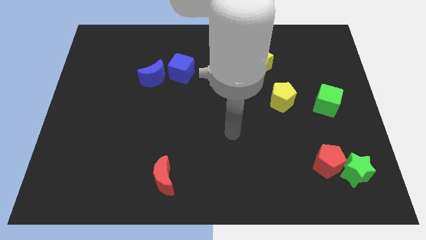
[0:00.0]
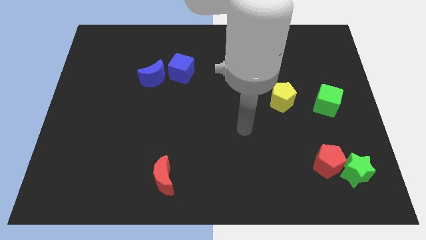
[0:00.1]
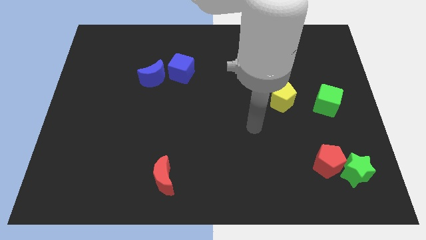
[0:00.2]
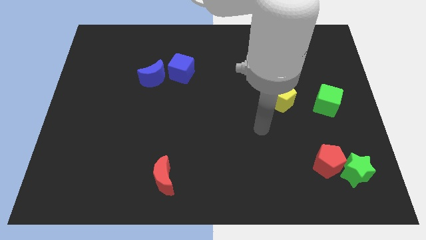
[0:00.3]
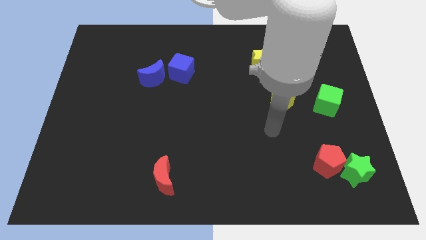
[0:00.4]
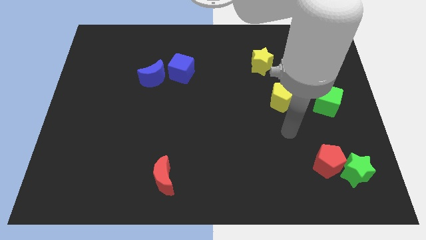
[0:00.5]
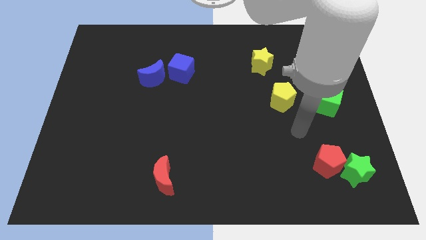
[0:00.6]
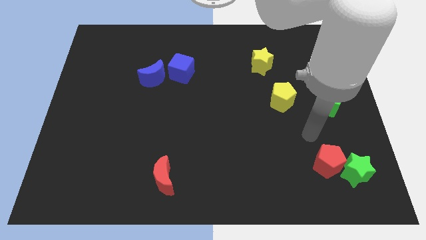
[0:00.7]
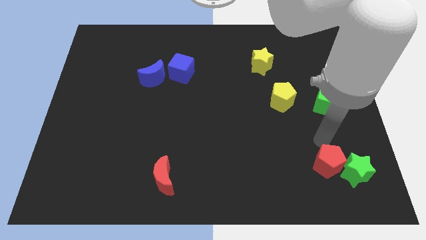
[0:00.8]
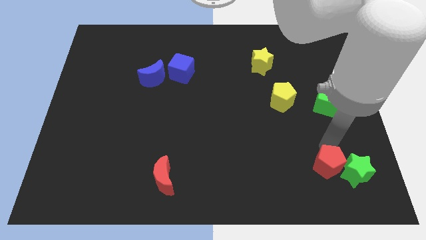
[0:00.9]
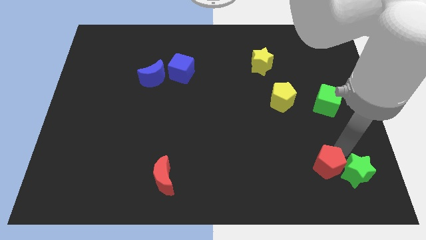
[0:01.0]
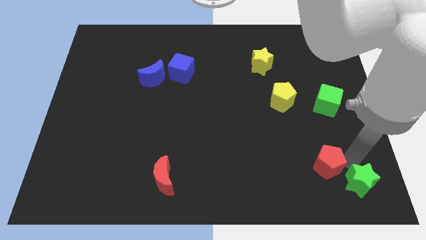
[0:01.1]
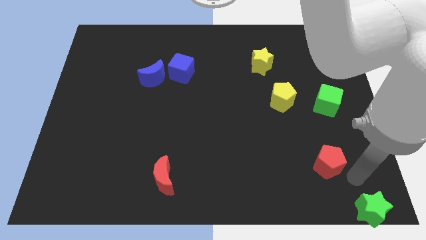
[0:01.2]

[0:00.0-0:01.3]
separate the red pentagon from the green star

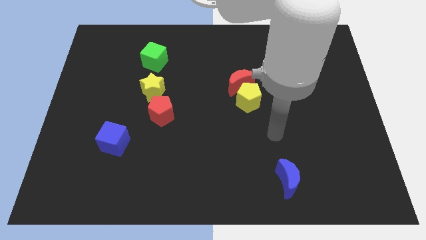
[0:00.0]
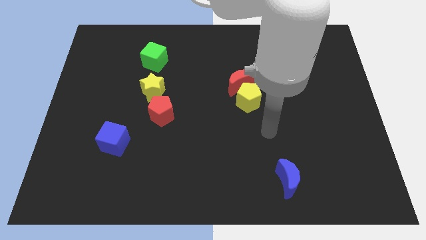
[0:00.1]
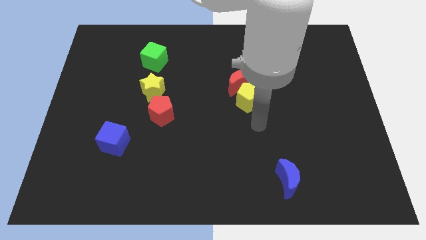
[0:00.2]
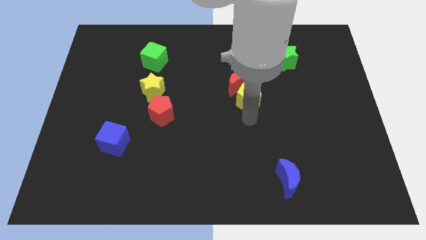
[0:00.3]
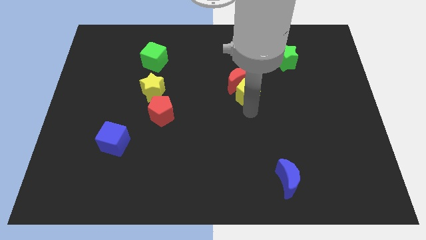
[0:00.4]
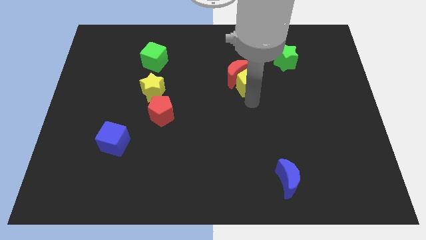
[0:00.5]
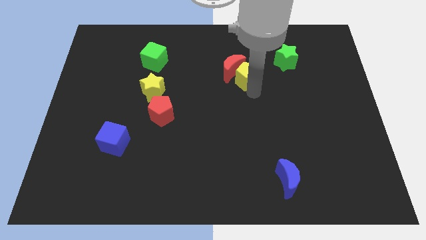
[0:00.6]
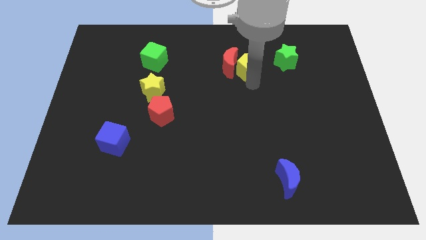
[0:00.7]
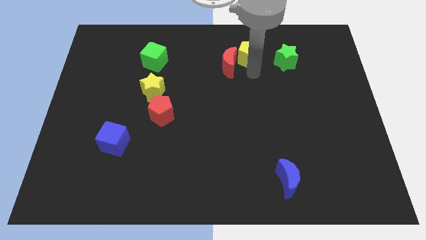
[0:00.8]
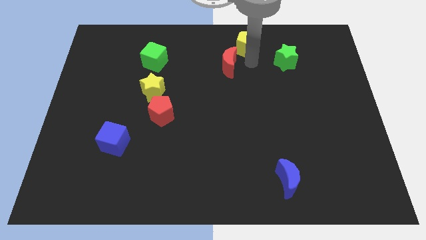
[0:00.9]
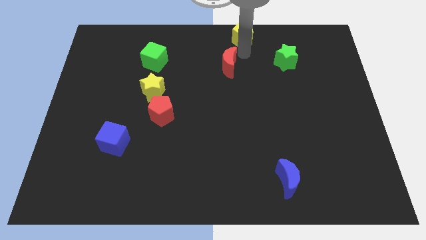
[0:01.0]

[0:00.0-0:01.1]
pull the red moon apart from the yellow pentagon

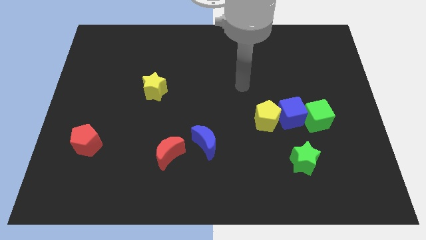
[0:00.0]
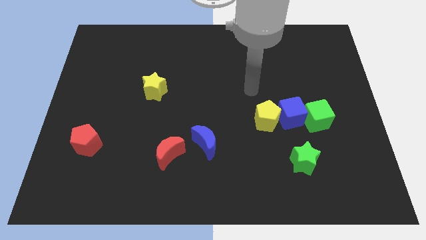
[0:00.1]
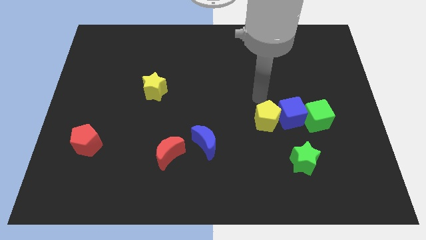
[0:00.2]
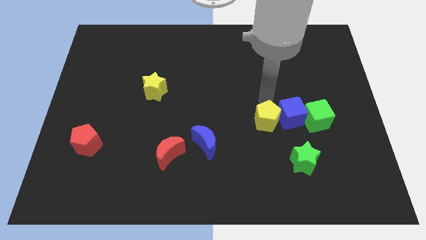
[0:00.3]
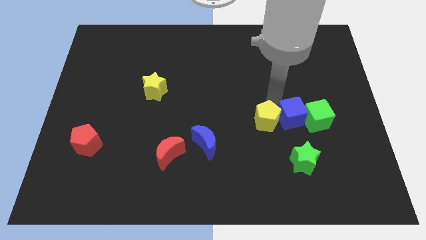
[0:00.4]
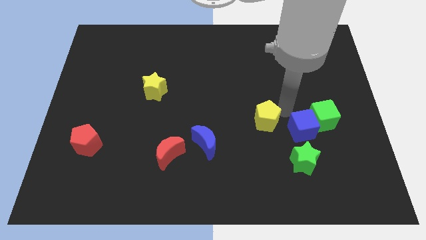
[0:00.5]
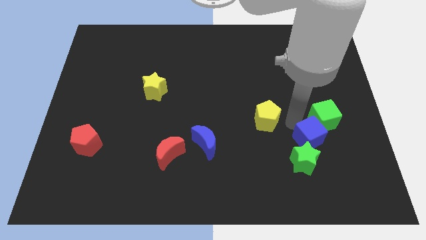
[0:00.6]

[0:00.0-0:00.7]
separate the yellow pentagon from the blue cube

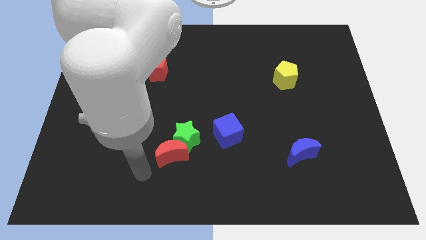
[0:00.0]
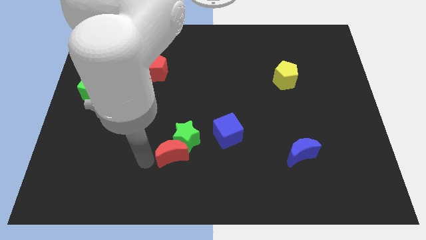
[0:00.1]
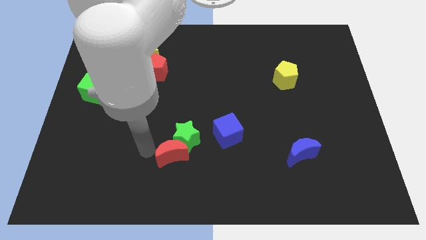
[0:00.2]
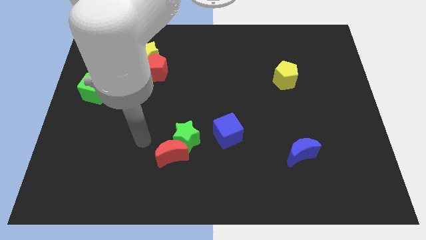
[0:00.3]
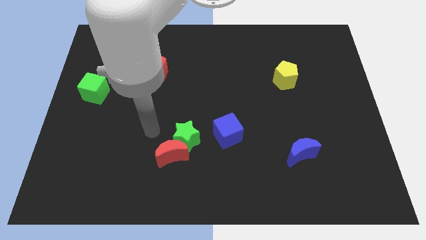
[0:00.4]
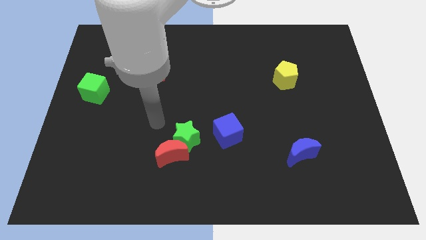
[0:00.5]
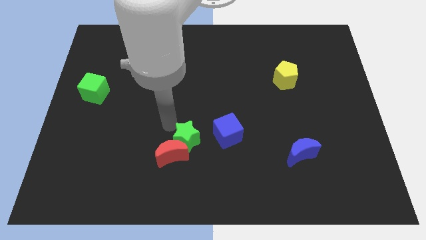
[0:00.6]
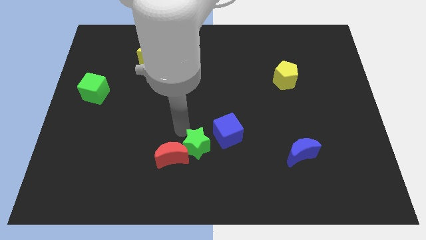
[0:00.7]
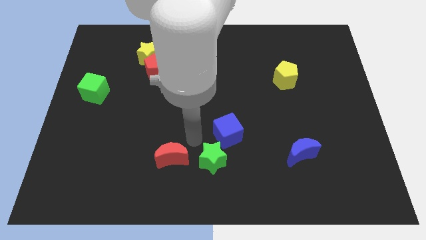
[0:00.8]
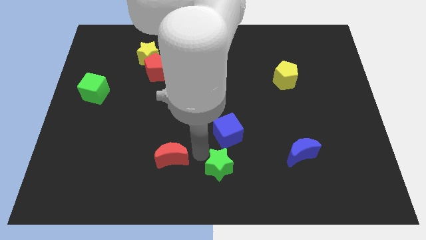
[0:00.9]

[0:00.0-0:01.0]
separate the red moon from the green star

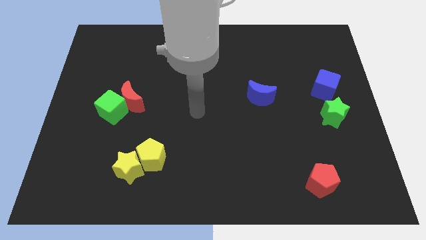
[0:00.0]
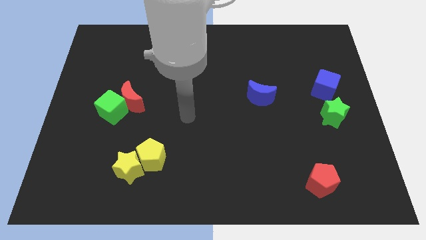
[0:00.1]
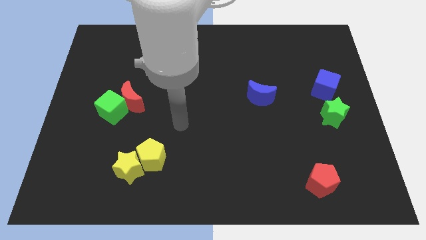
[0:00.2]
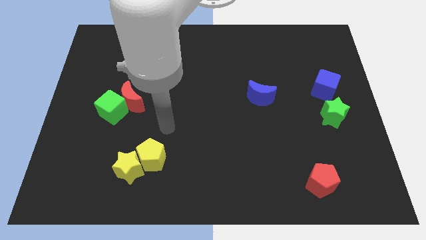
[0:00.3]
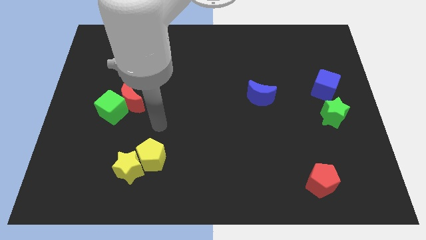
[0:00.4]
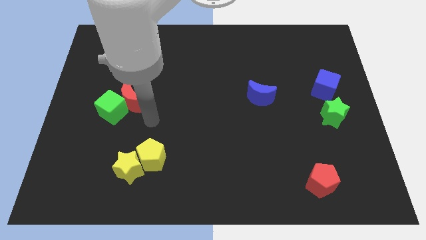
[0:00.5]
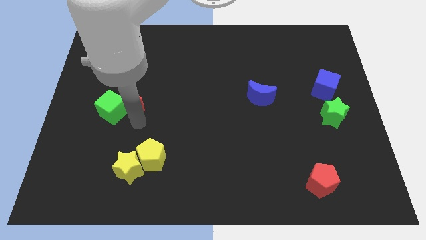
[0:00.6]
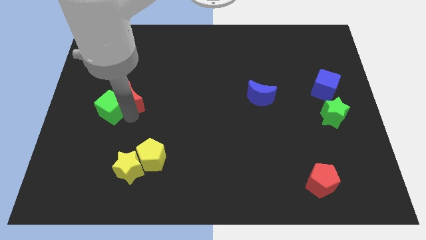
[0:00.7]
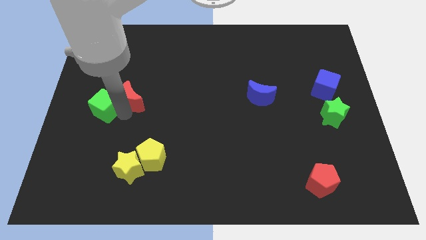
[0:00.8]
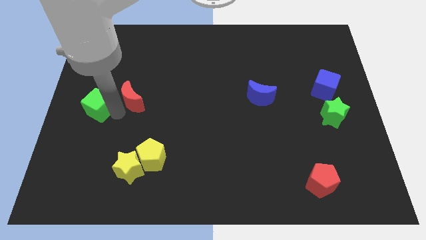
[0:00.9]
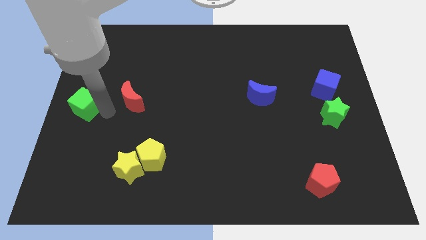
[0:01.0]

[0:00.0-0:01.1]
pull the red moon apart from the green cube

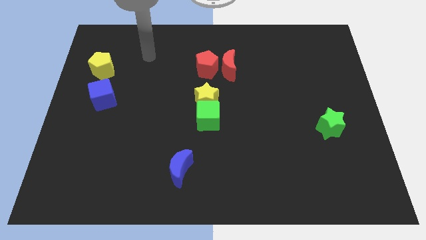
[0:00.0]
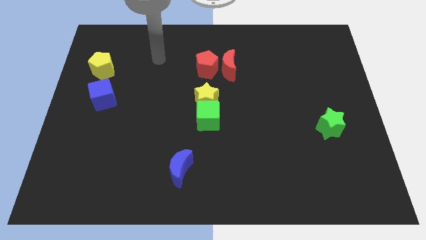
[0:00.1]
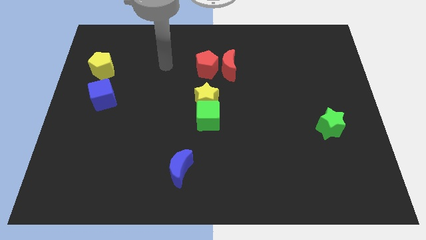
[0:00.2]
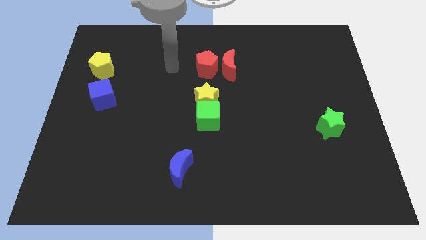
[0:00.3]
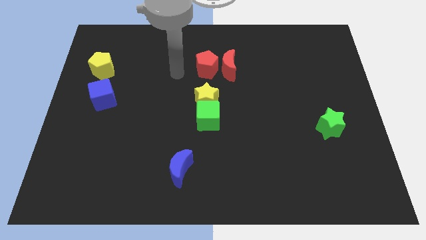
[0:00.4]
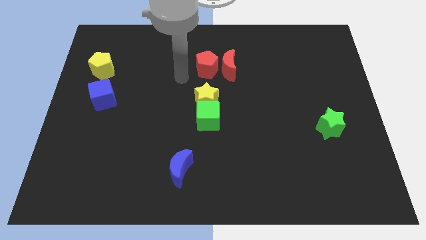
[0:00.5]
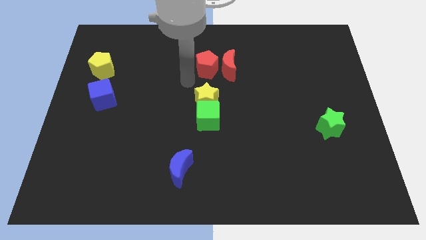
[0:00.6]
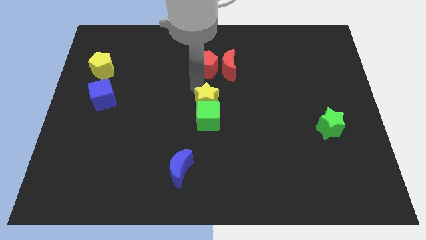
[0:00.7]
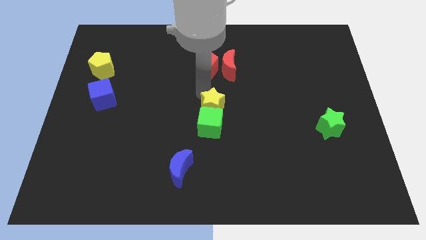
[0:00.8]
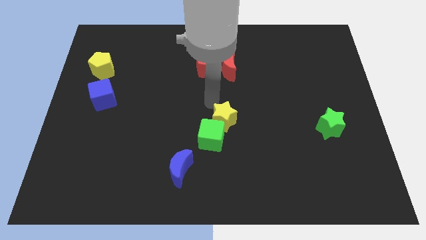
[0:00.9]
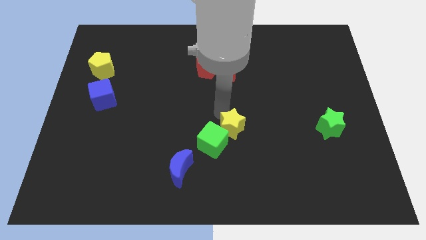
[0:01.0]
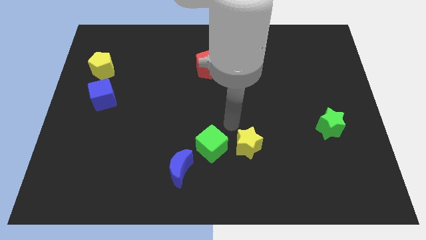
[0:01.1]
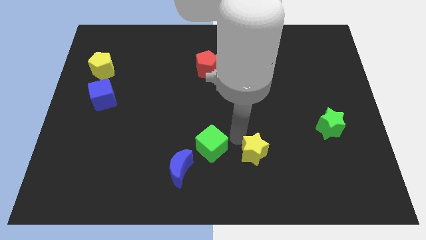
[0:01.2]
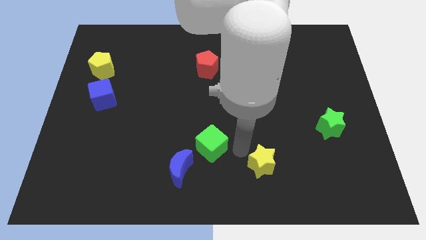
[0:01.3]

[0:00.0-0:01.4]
move the green cube away from the yellow star

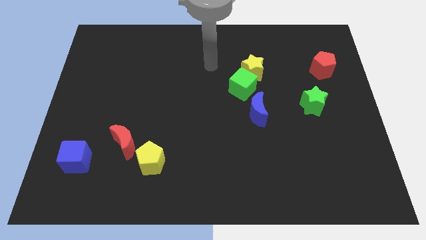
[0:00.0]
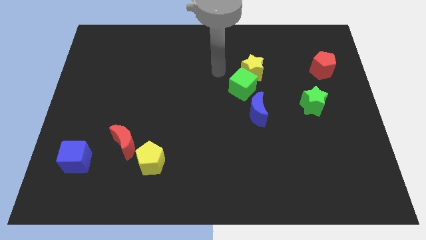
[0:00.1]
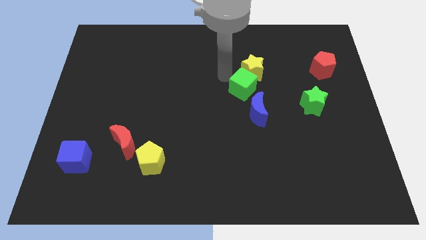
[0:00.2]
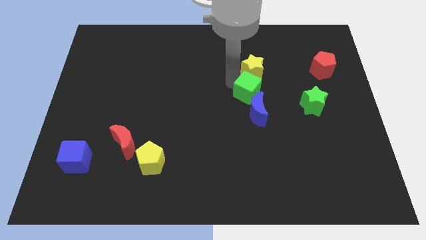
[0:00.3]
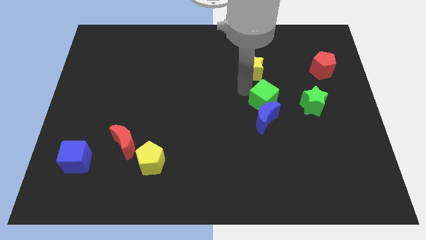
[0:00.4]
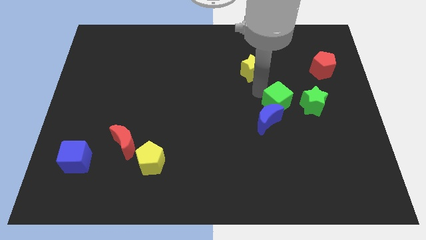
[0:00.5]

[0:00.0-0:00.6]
pull the yellow star apart from the green cube

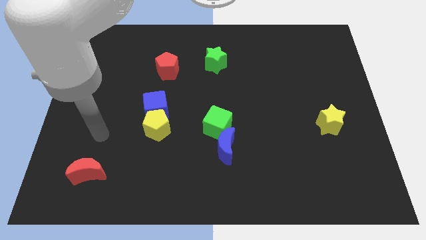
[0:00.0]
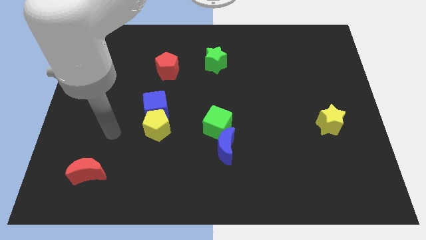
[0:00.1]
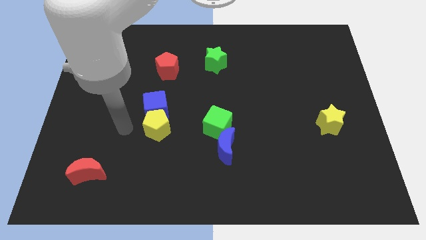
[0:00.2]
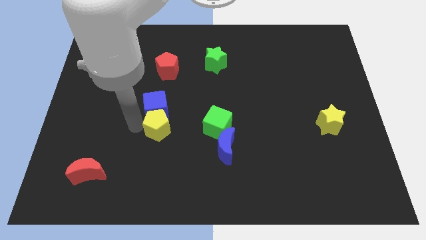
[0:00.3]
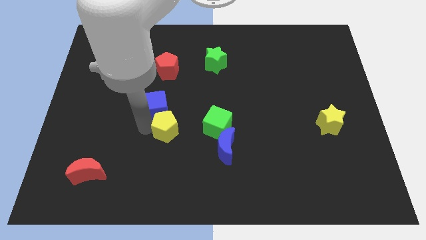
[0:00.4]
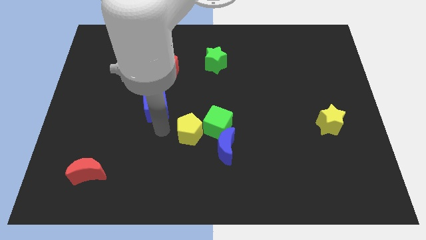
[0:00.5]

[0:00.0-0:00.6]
move the blue cube away from the yellow pentagon

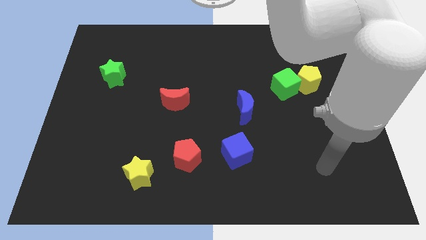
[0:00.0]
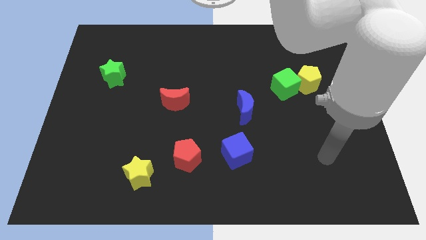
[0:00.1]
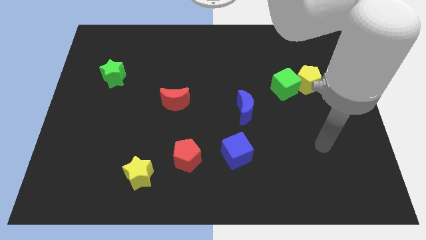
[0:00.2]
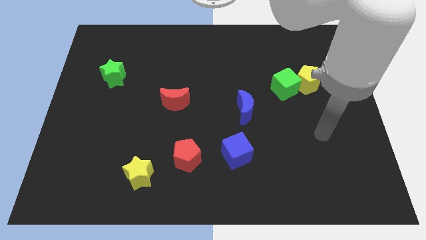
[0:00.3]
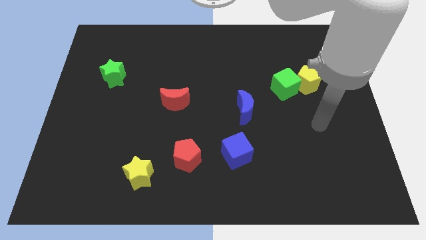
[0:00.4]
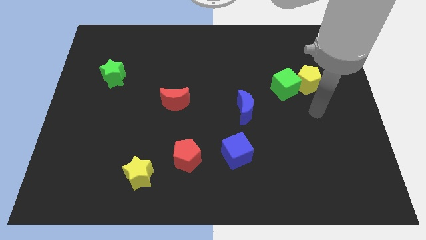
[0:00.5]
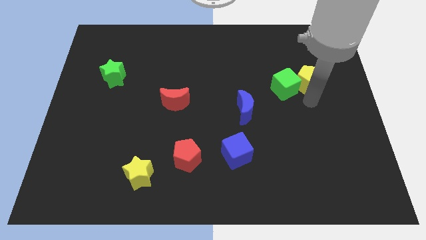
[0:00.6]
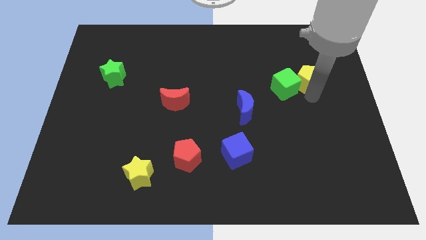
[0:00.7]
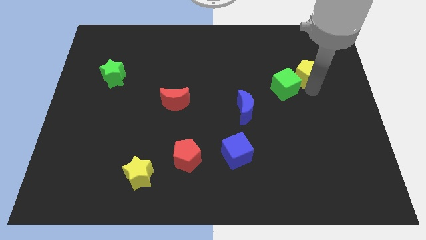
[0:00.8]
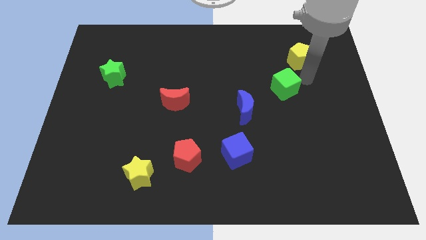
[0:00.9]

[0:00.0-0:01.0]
move the green cube away from the yellow pentagon

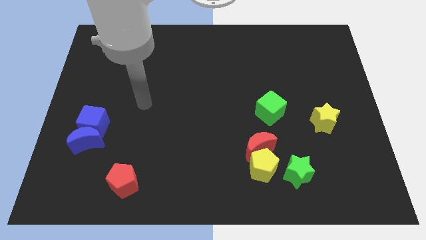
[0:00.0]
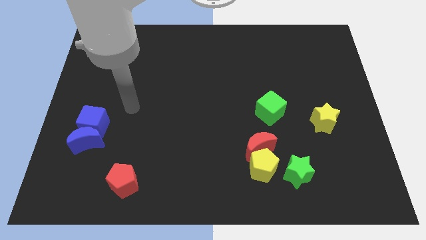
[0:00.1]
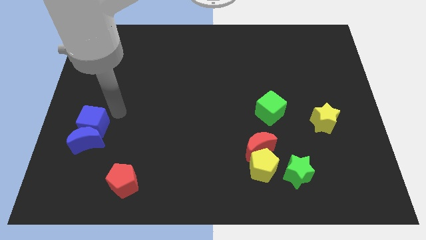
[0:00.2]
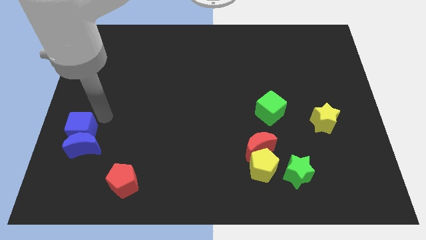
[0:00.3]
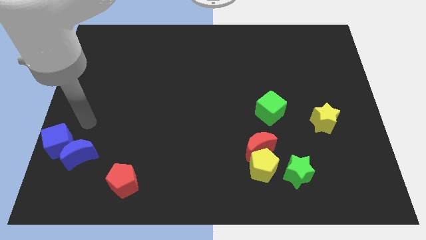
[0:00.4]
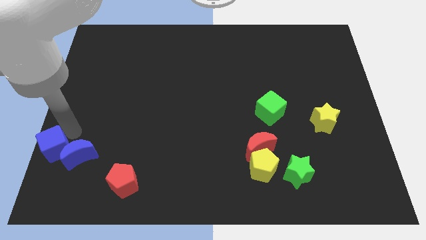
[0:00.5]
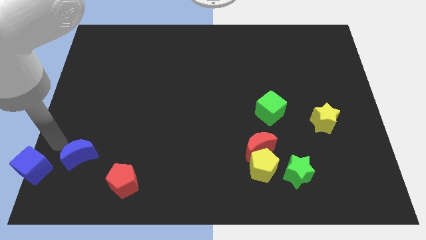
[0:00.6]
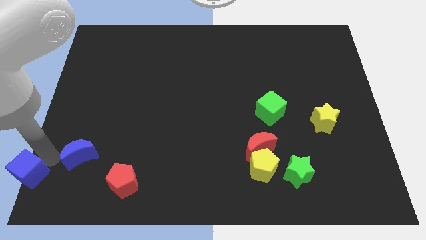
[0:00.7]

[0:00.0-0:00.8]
move the blue moon away from the blue cube
